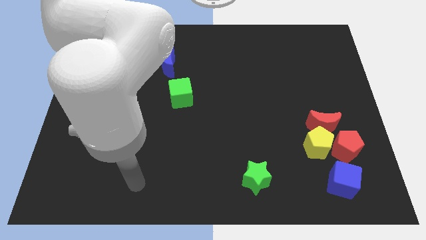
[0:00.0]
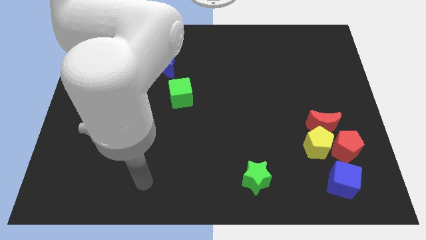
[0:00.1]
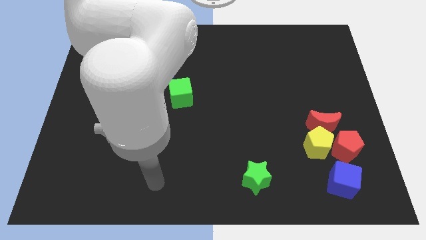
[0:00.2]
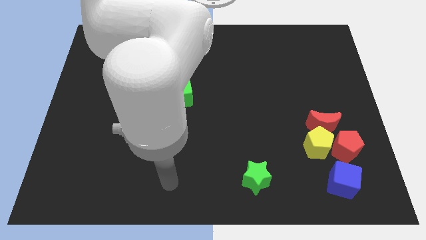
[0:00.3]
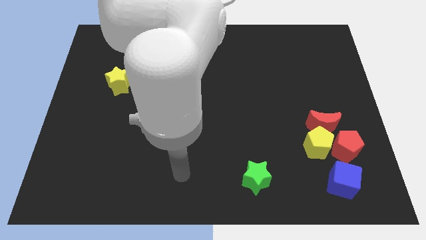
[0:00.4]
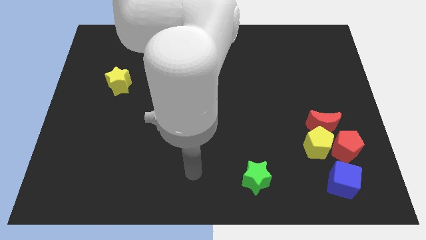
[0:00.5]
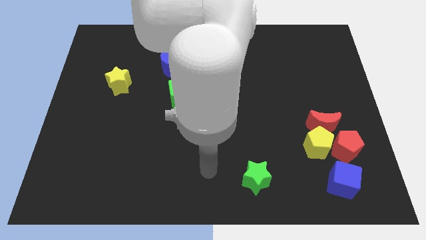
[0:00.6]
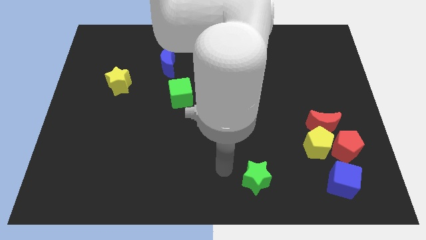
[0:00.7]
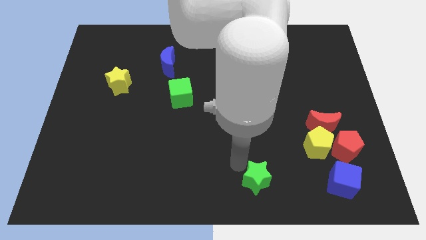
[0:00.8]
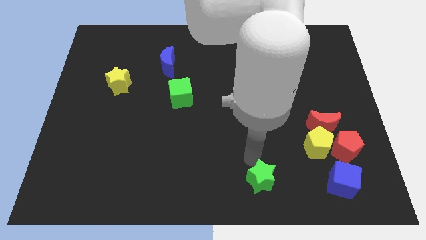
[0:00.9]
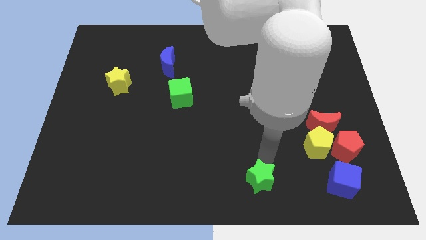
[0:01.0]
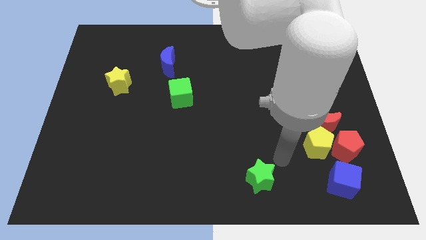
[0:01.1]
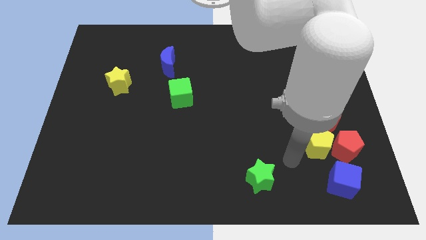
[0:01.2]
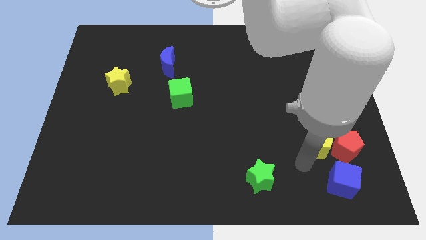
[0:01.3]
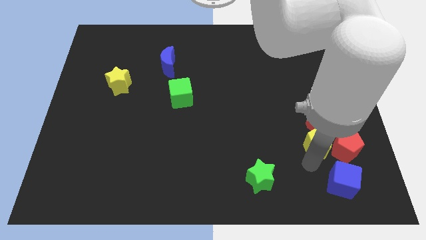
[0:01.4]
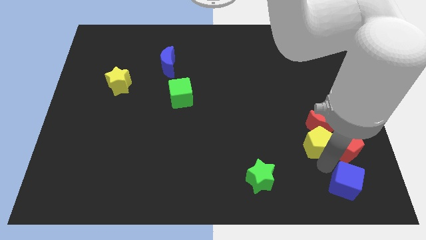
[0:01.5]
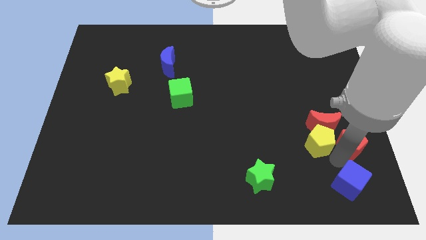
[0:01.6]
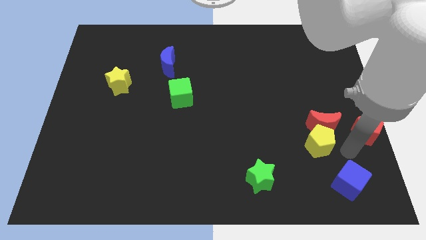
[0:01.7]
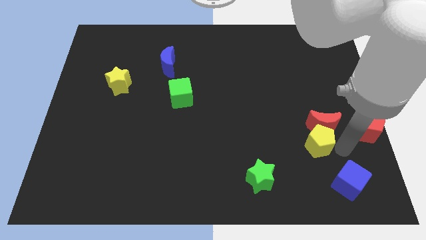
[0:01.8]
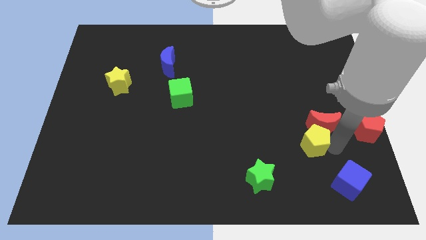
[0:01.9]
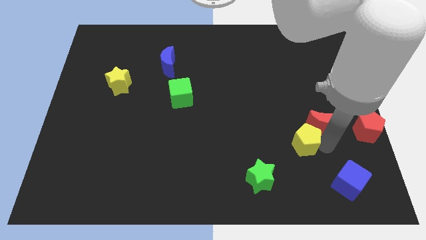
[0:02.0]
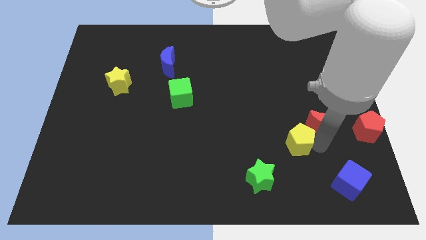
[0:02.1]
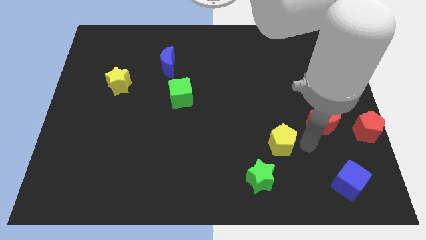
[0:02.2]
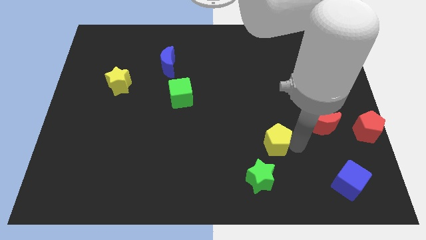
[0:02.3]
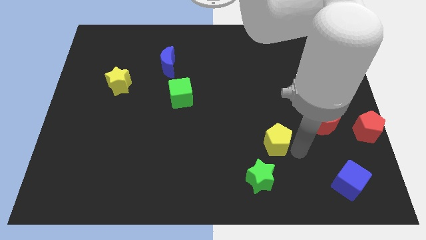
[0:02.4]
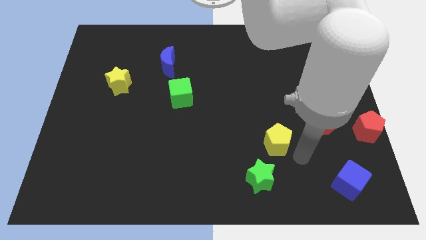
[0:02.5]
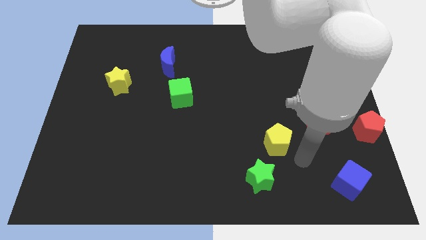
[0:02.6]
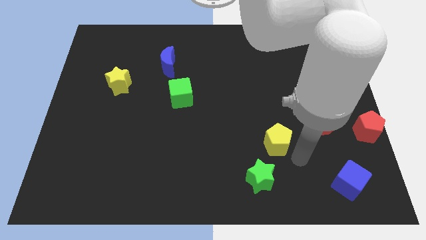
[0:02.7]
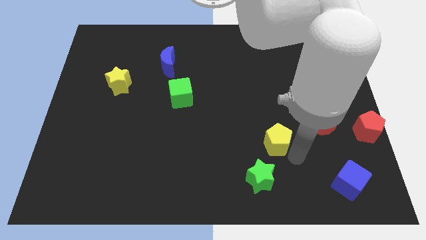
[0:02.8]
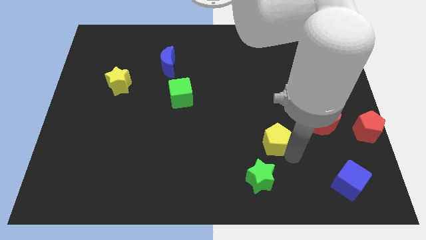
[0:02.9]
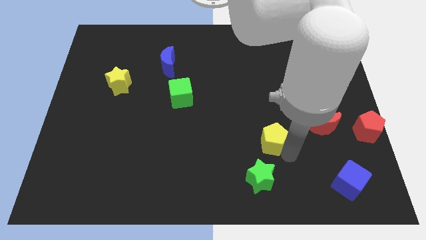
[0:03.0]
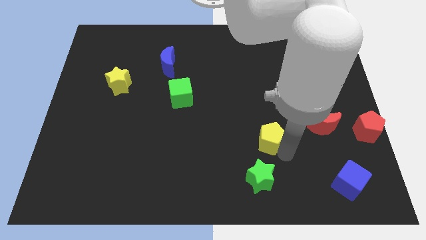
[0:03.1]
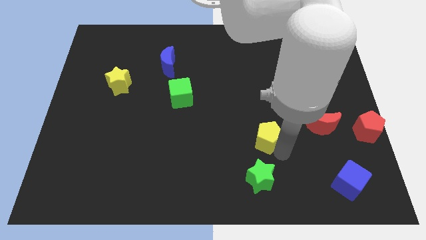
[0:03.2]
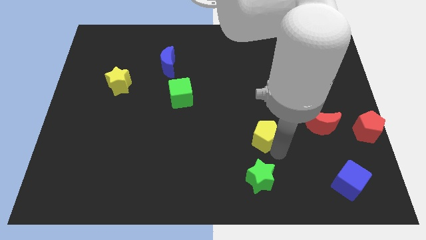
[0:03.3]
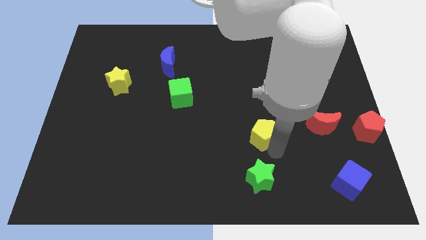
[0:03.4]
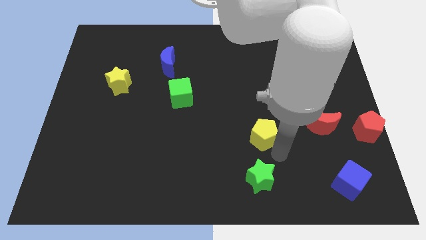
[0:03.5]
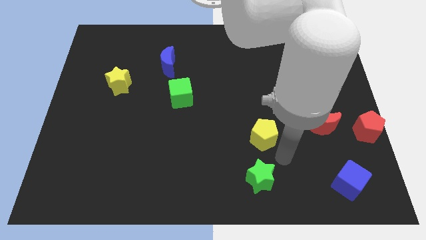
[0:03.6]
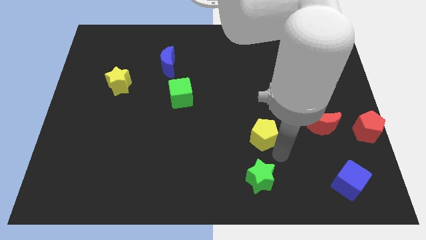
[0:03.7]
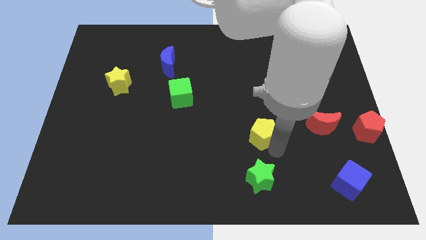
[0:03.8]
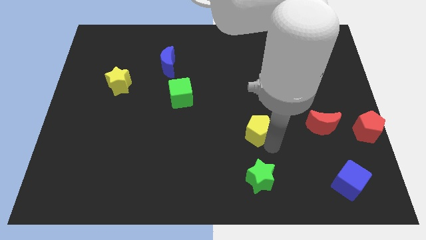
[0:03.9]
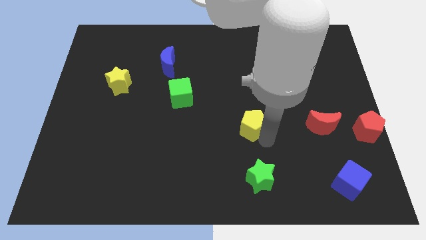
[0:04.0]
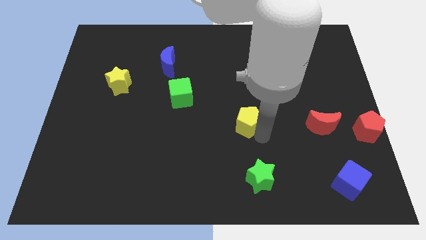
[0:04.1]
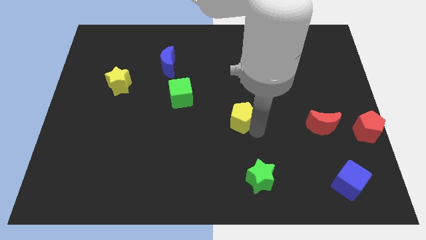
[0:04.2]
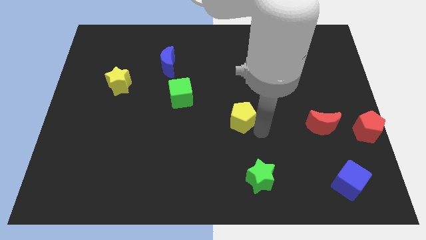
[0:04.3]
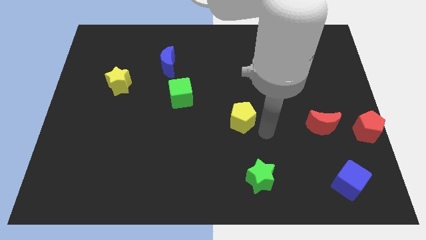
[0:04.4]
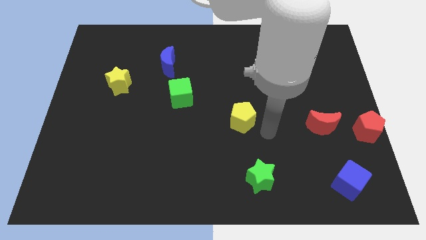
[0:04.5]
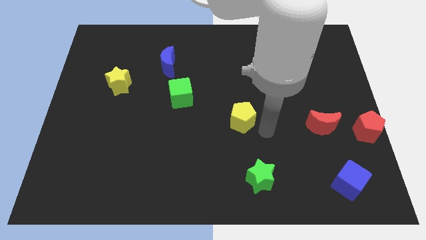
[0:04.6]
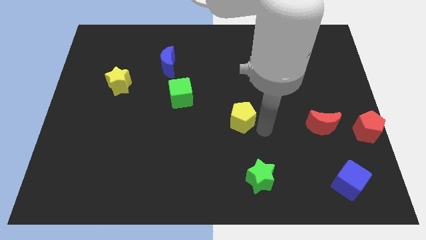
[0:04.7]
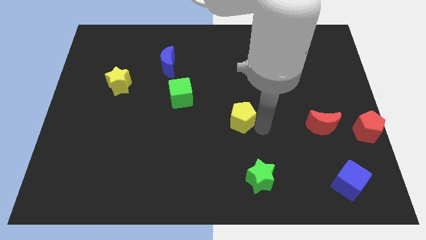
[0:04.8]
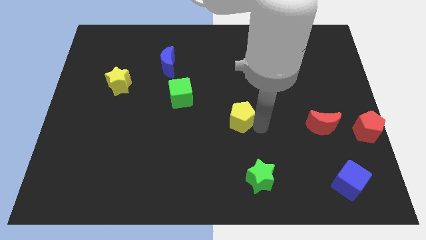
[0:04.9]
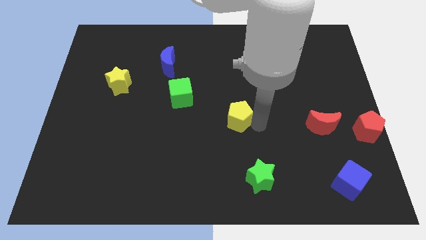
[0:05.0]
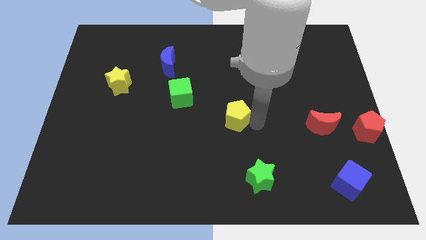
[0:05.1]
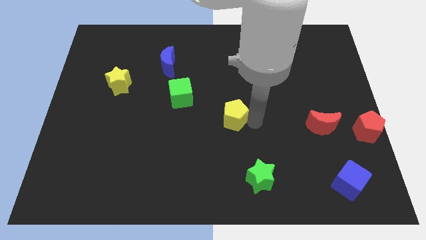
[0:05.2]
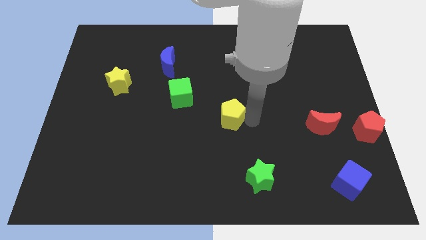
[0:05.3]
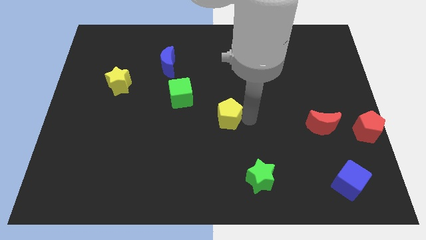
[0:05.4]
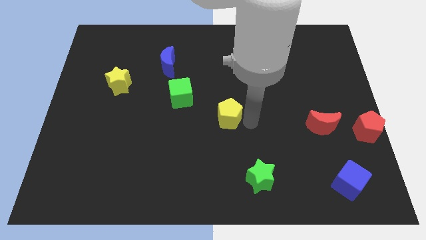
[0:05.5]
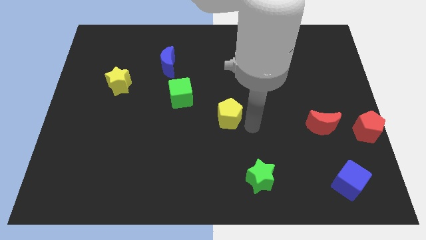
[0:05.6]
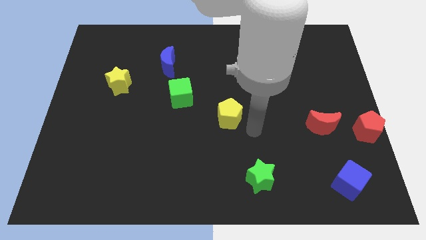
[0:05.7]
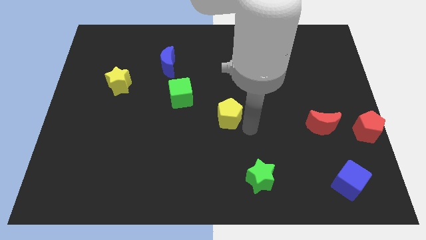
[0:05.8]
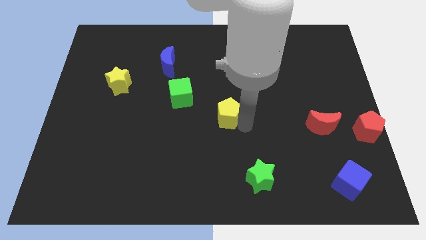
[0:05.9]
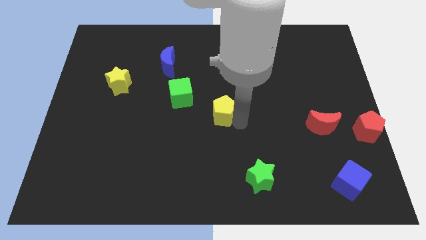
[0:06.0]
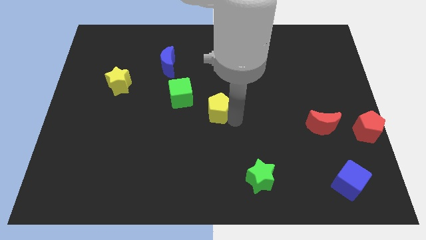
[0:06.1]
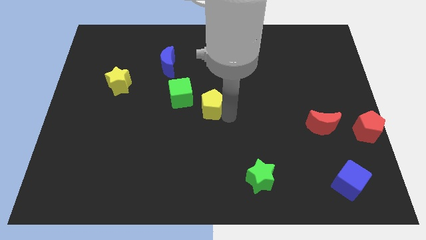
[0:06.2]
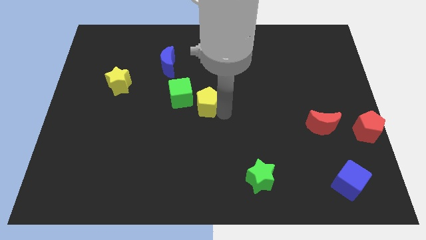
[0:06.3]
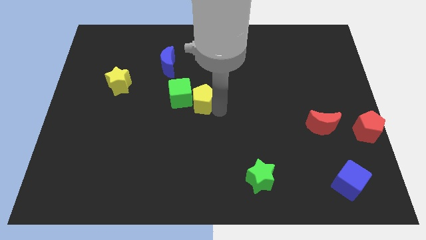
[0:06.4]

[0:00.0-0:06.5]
move the yellow pentagon to the green cube

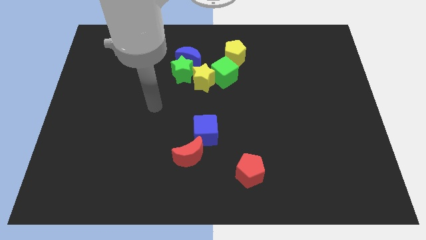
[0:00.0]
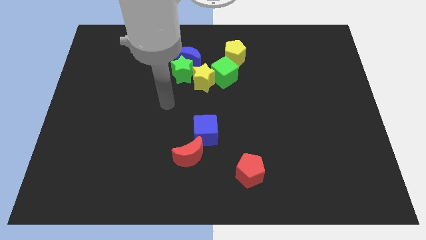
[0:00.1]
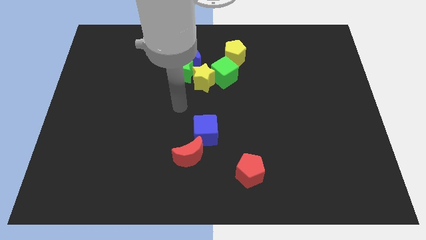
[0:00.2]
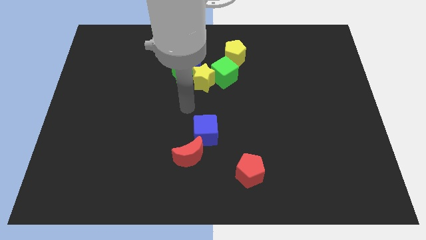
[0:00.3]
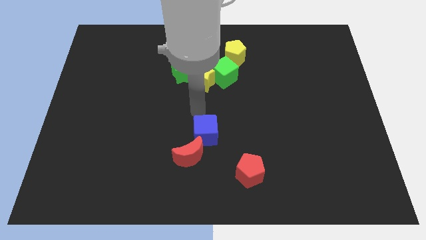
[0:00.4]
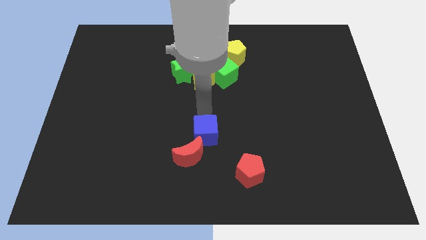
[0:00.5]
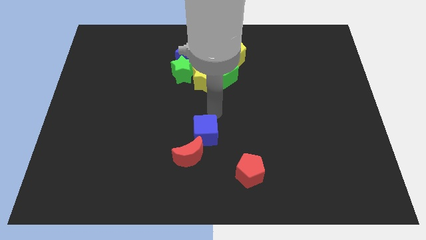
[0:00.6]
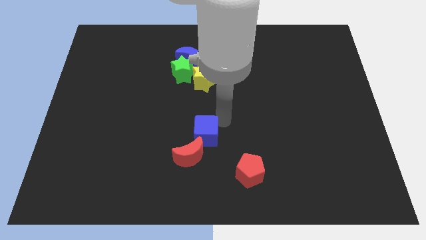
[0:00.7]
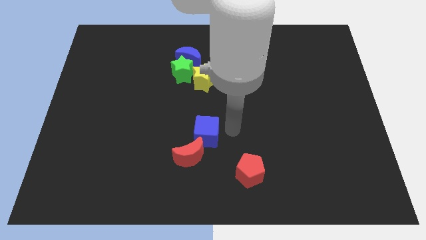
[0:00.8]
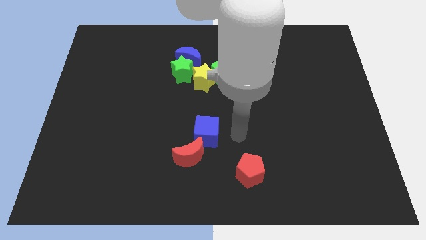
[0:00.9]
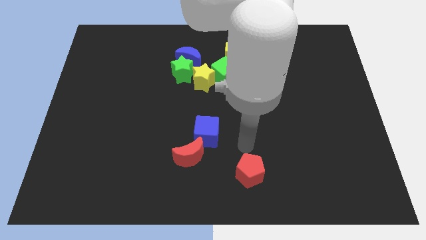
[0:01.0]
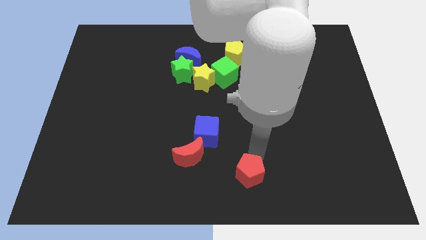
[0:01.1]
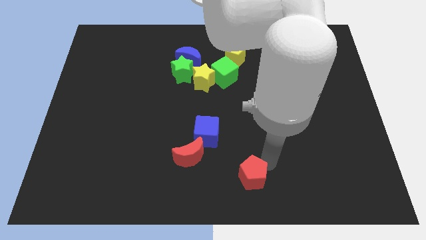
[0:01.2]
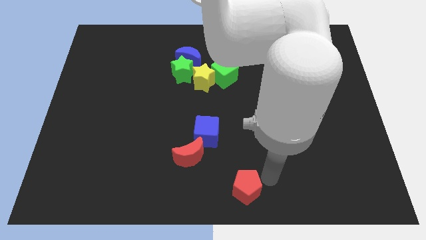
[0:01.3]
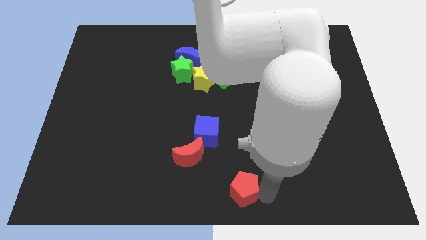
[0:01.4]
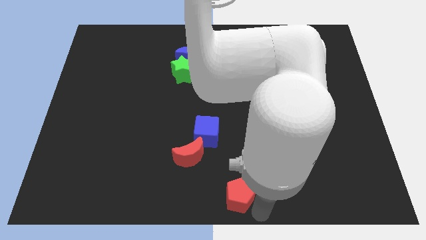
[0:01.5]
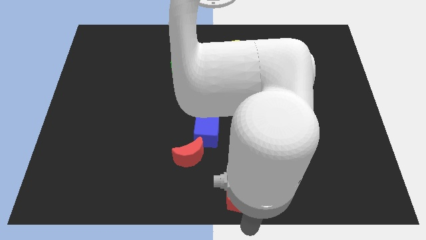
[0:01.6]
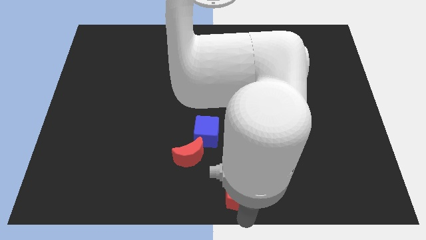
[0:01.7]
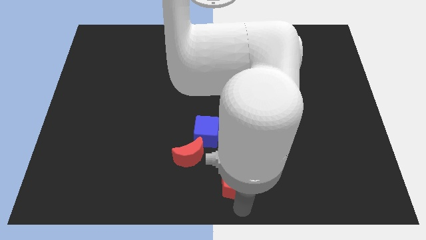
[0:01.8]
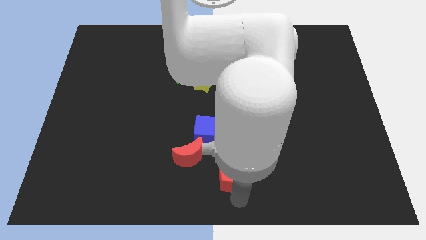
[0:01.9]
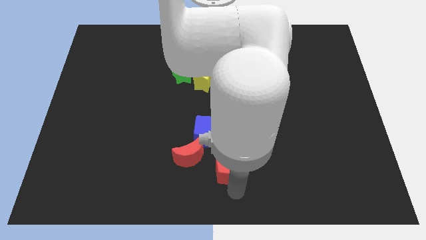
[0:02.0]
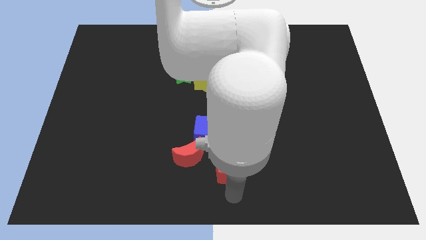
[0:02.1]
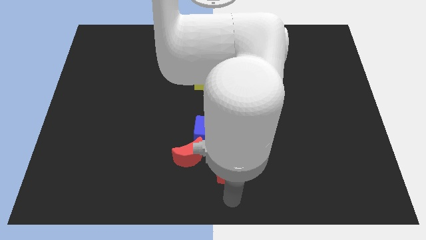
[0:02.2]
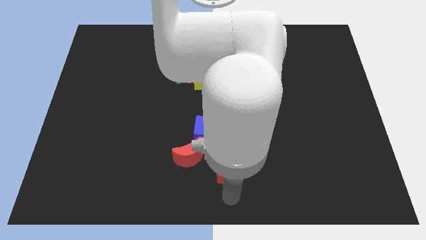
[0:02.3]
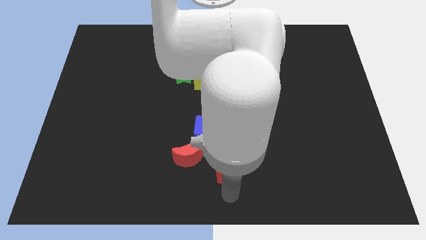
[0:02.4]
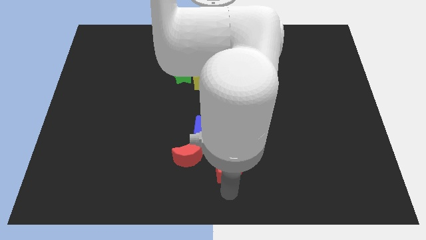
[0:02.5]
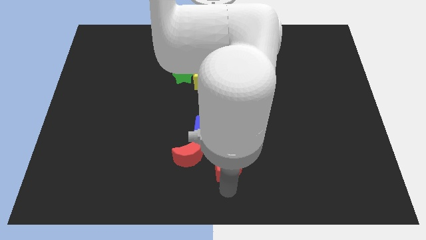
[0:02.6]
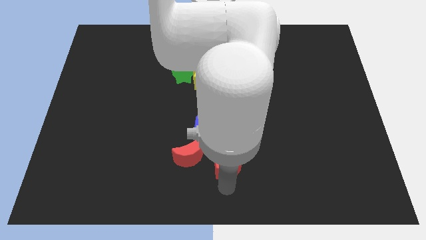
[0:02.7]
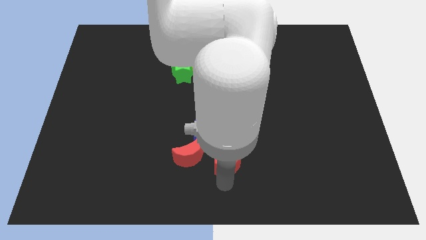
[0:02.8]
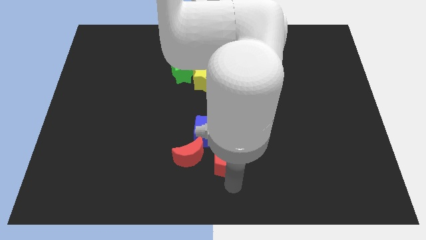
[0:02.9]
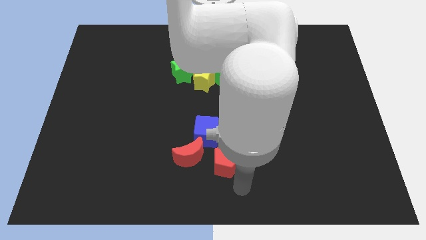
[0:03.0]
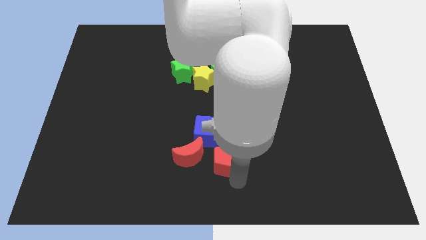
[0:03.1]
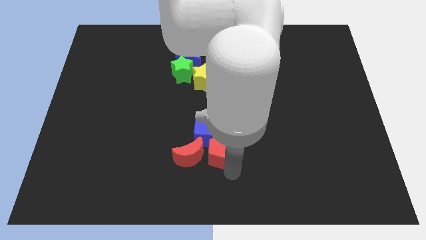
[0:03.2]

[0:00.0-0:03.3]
put the red pentagon to the blue cube
